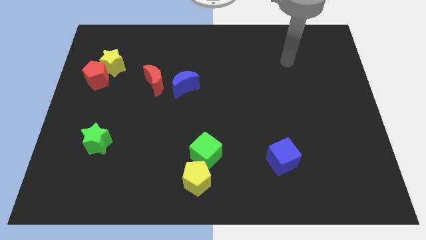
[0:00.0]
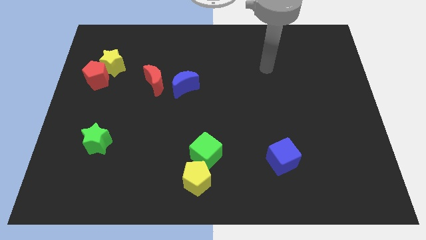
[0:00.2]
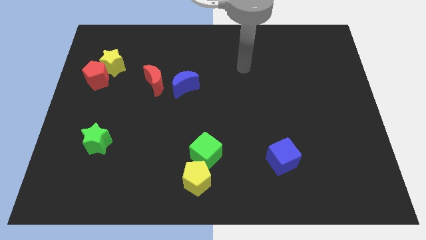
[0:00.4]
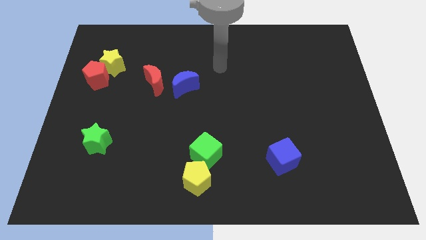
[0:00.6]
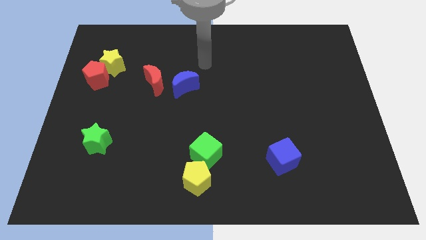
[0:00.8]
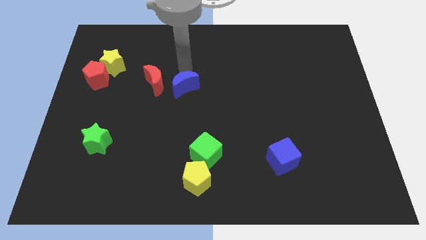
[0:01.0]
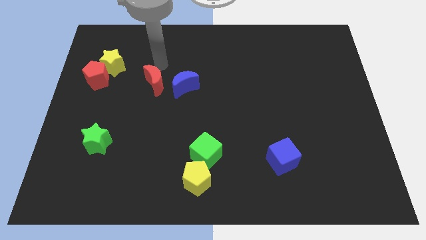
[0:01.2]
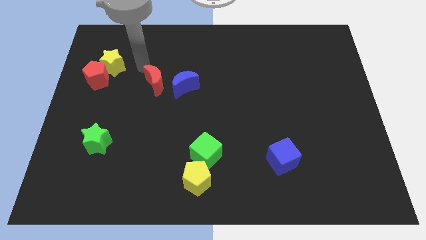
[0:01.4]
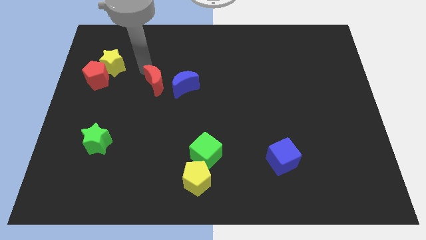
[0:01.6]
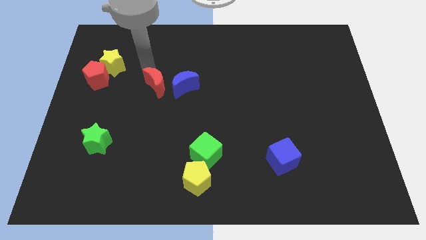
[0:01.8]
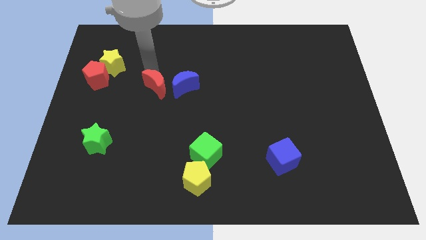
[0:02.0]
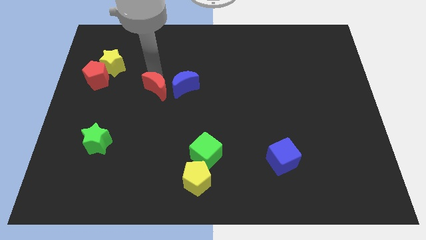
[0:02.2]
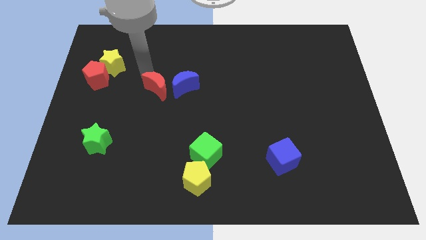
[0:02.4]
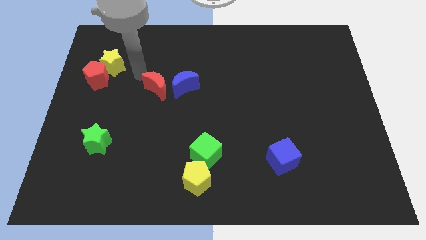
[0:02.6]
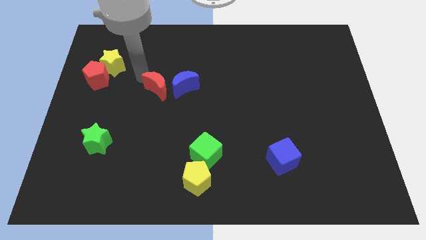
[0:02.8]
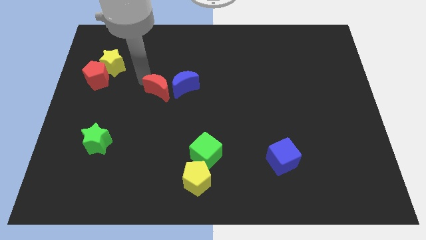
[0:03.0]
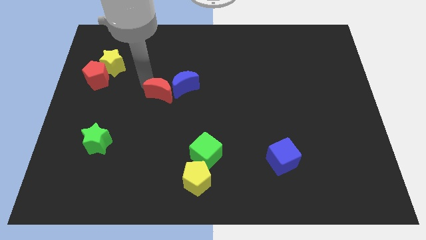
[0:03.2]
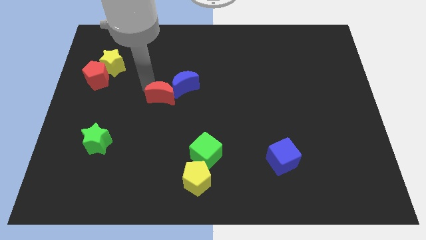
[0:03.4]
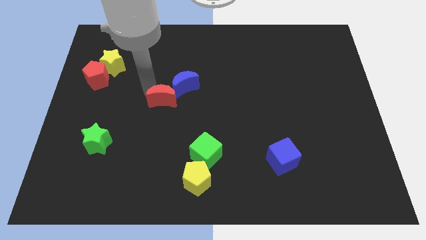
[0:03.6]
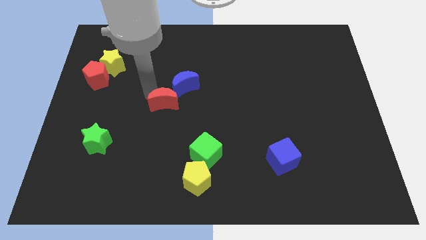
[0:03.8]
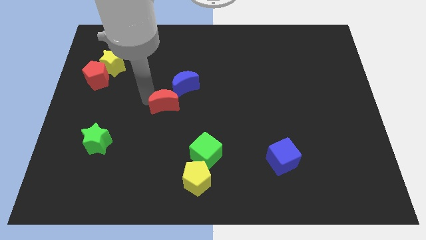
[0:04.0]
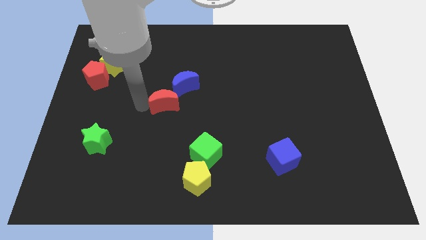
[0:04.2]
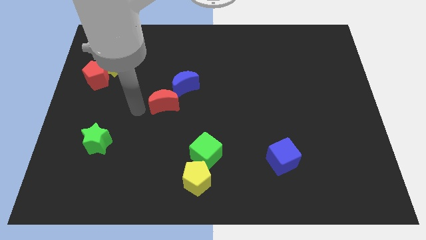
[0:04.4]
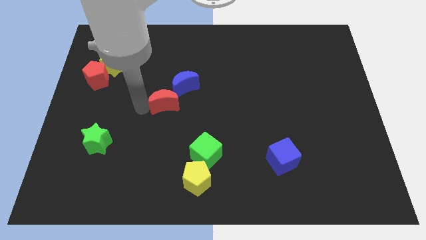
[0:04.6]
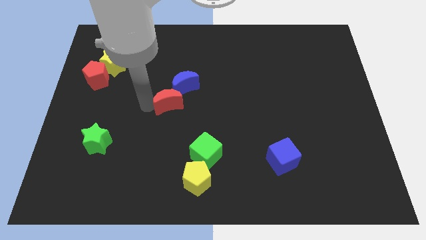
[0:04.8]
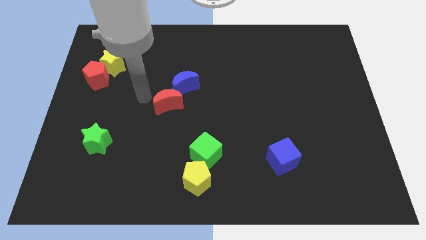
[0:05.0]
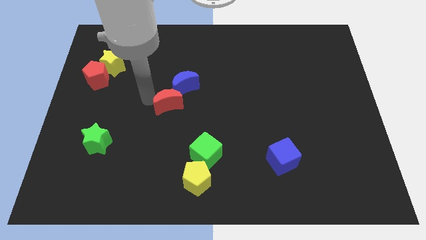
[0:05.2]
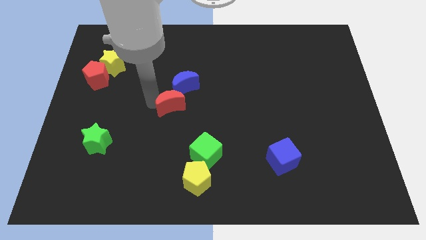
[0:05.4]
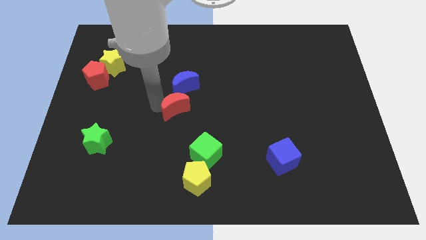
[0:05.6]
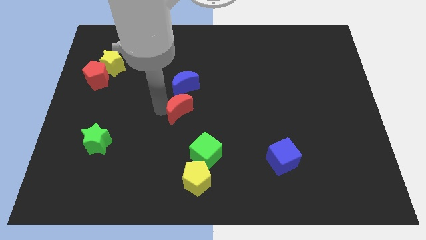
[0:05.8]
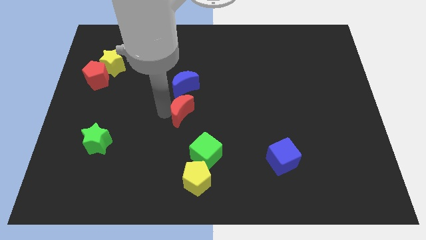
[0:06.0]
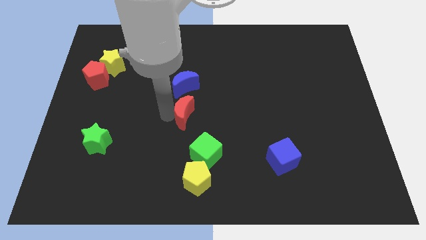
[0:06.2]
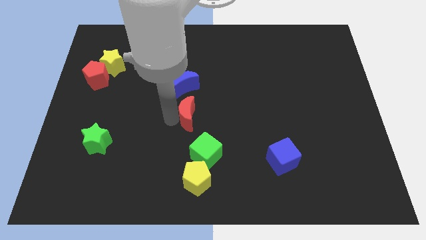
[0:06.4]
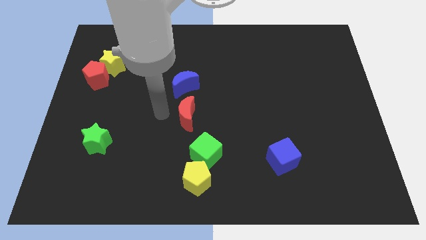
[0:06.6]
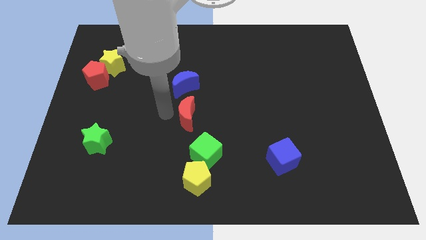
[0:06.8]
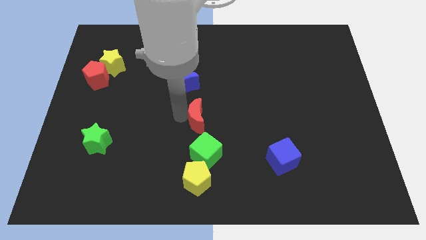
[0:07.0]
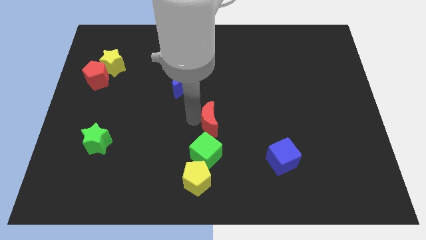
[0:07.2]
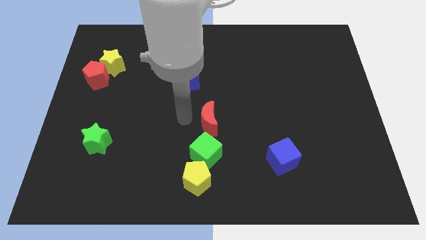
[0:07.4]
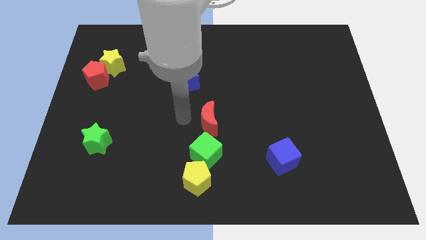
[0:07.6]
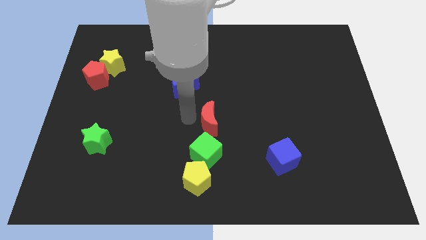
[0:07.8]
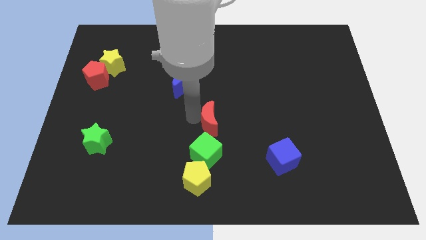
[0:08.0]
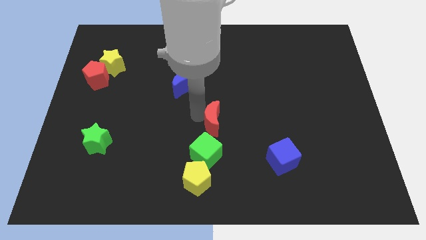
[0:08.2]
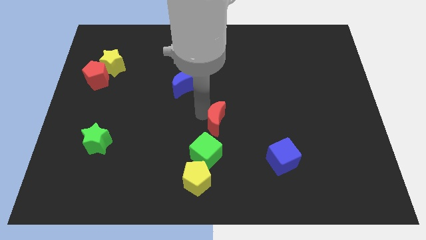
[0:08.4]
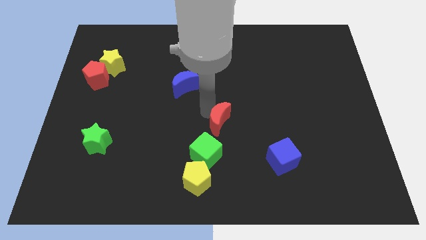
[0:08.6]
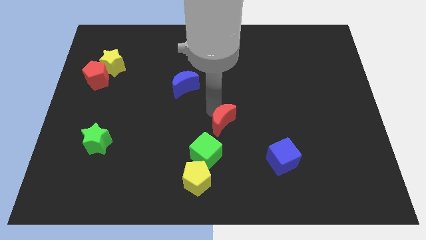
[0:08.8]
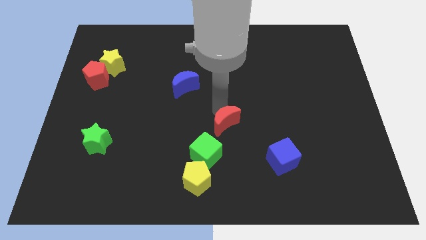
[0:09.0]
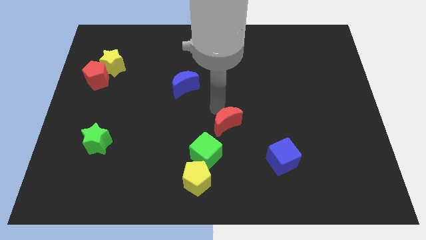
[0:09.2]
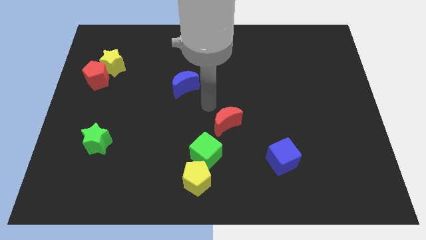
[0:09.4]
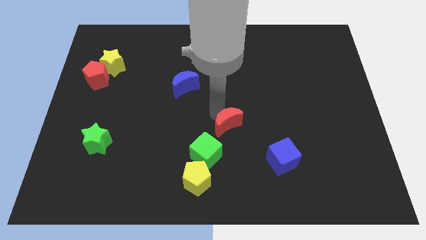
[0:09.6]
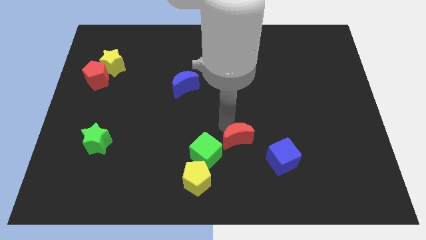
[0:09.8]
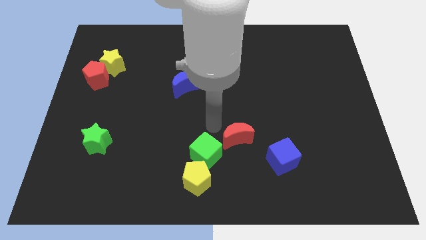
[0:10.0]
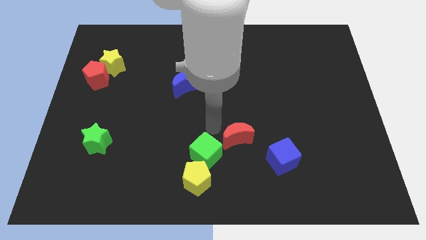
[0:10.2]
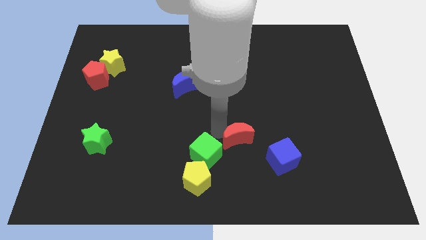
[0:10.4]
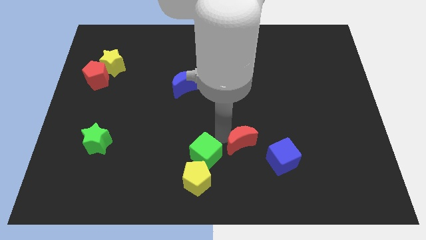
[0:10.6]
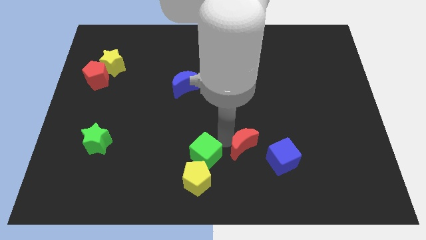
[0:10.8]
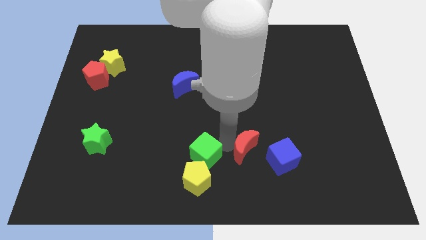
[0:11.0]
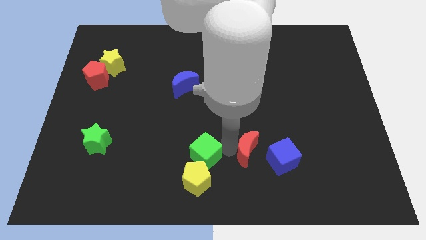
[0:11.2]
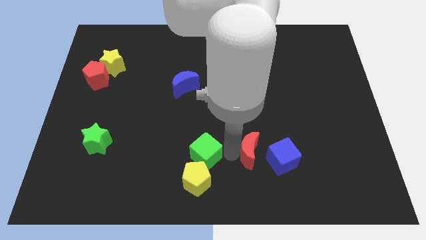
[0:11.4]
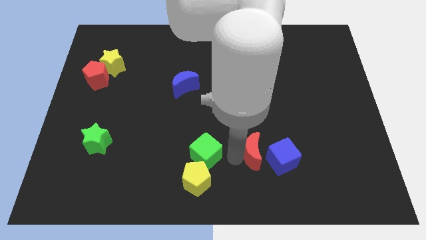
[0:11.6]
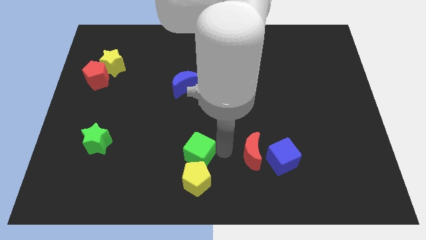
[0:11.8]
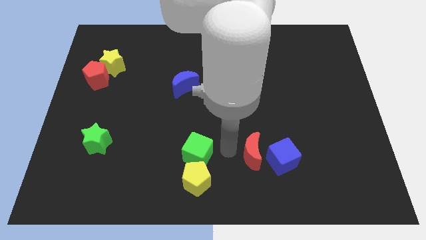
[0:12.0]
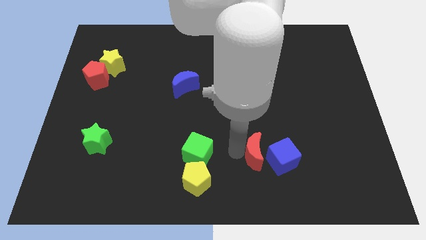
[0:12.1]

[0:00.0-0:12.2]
put the red moon close to the blue cube

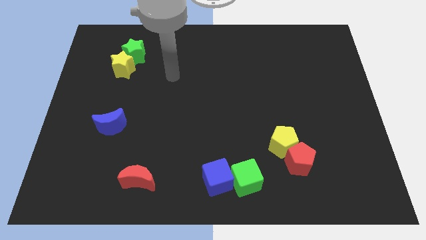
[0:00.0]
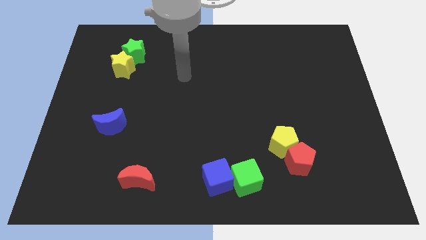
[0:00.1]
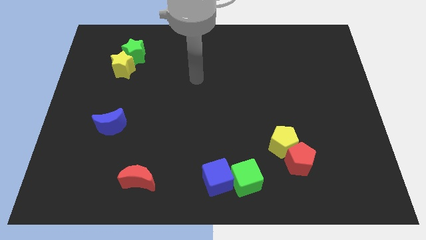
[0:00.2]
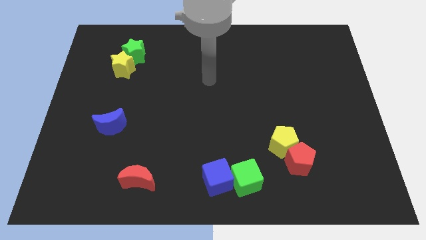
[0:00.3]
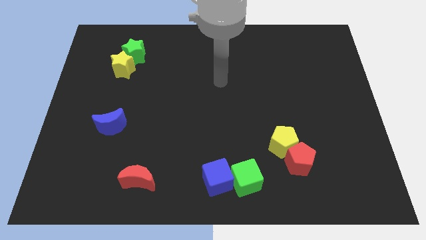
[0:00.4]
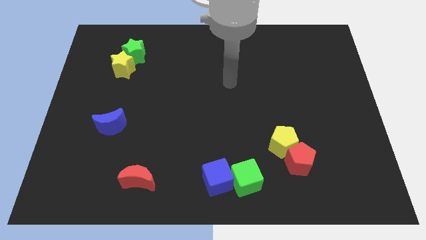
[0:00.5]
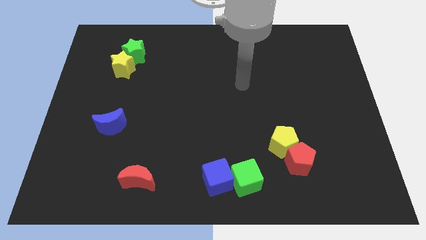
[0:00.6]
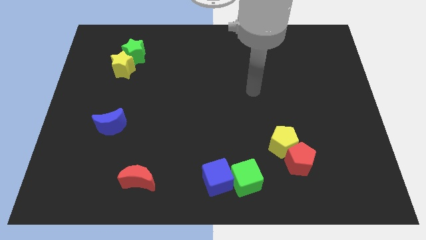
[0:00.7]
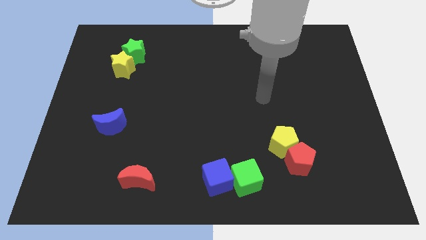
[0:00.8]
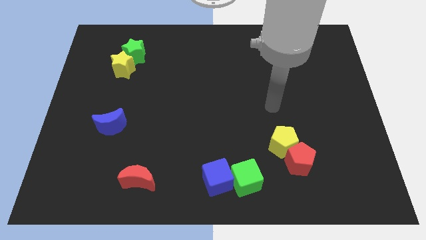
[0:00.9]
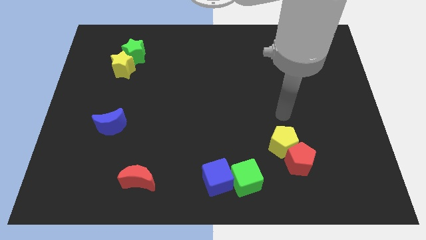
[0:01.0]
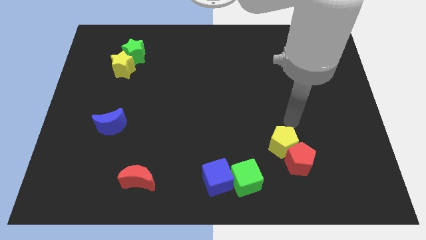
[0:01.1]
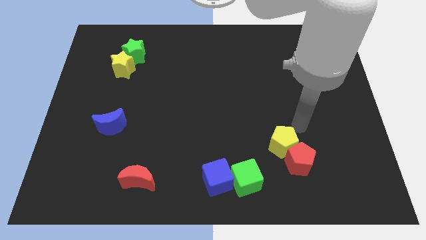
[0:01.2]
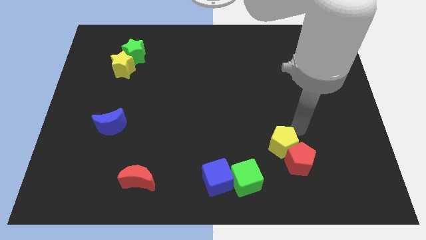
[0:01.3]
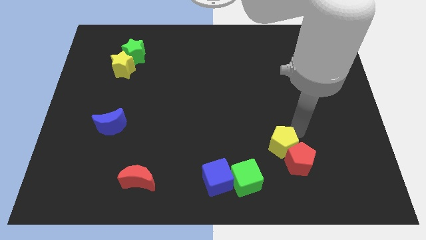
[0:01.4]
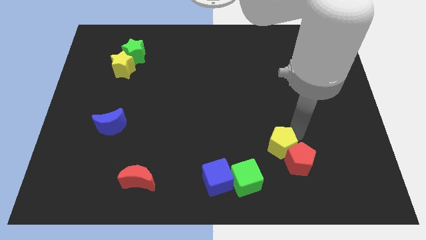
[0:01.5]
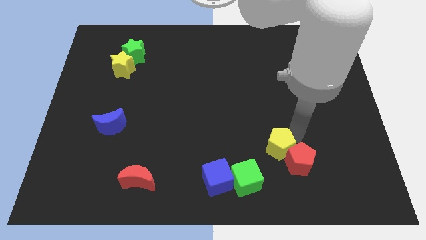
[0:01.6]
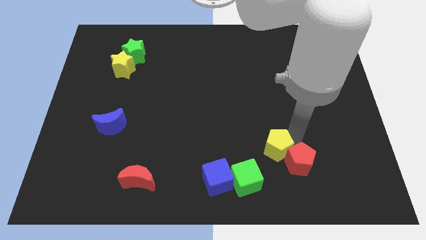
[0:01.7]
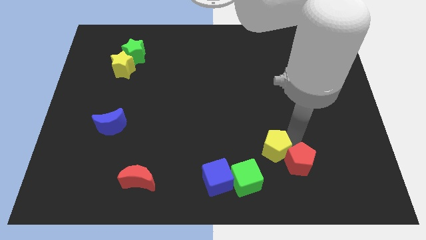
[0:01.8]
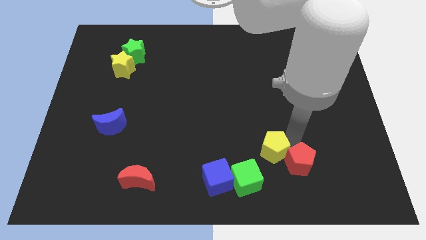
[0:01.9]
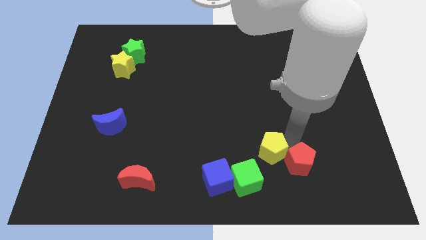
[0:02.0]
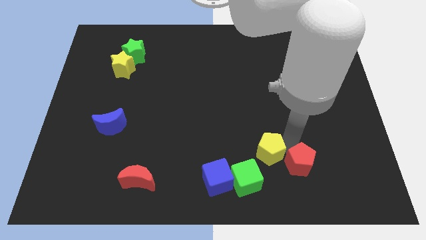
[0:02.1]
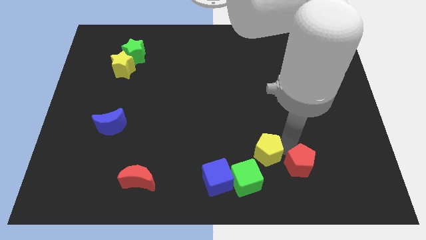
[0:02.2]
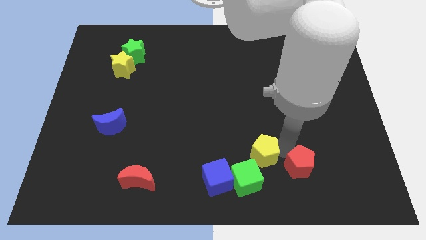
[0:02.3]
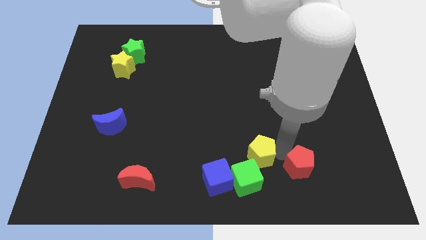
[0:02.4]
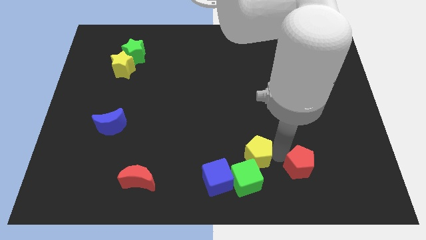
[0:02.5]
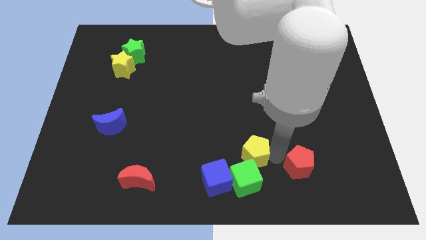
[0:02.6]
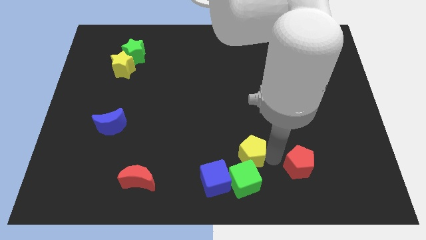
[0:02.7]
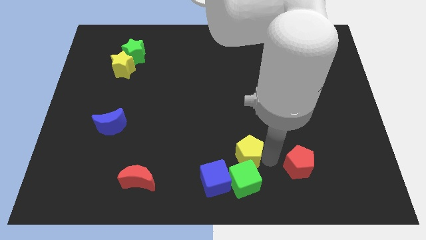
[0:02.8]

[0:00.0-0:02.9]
slide the yellow pentagon towards the green cube
